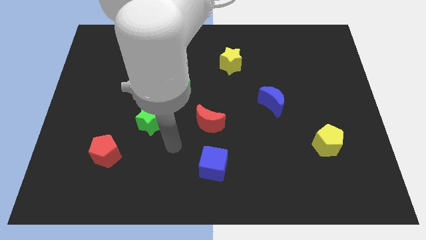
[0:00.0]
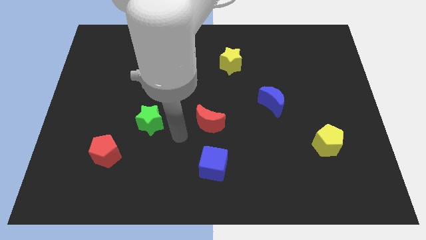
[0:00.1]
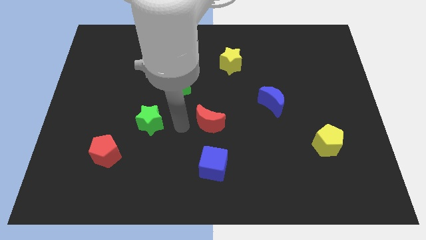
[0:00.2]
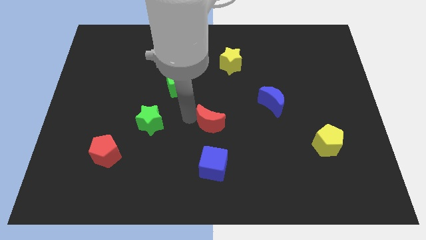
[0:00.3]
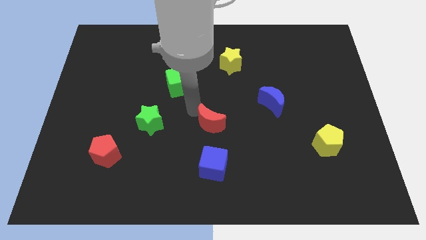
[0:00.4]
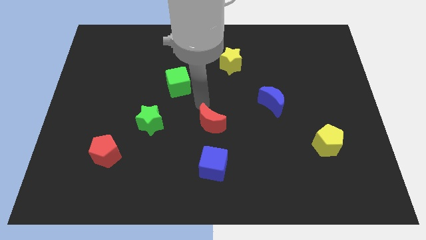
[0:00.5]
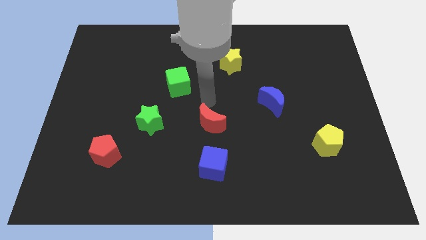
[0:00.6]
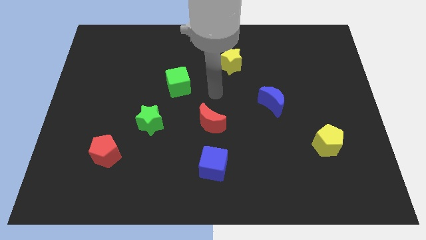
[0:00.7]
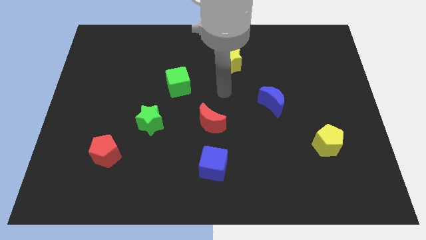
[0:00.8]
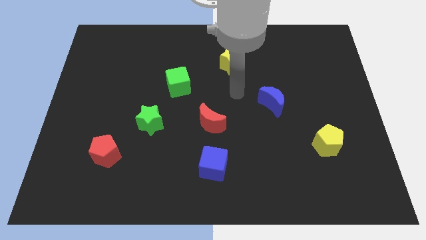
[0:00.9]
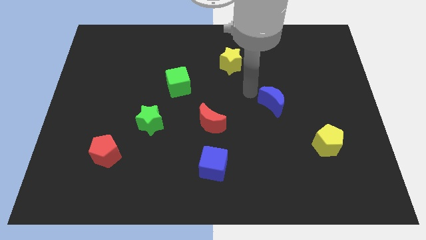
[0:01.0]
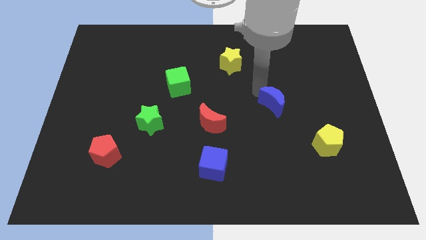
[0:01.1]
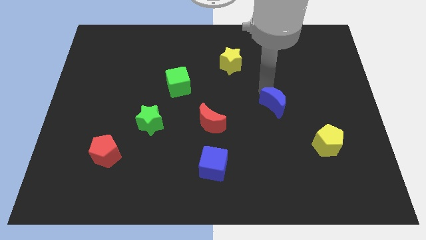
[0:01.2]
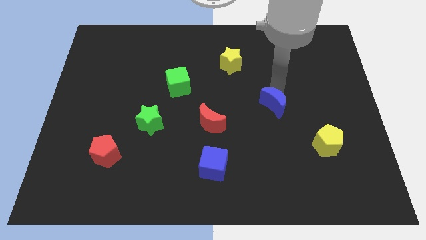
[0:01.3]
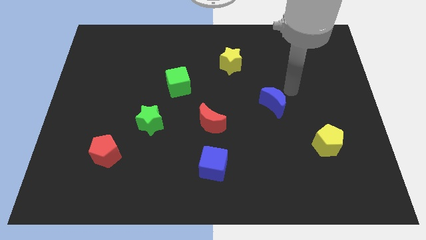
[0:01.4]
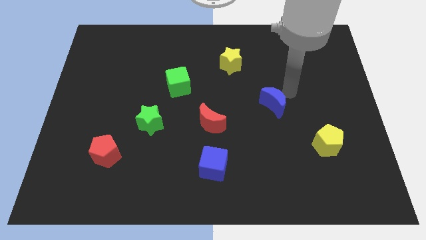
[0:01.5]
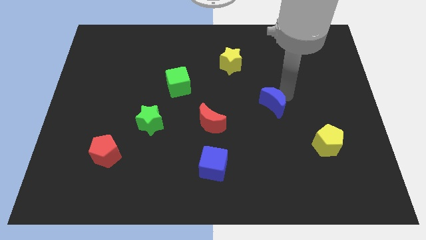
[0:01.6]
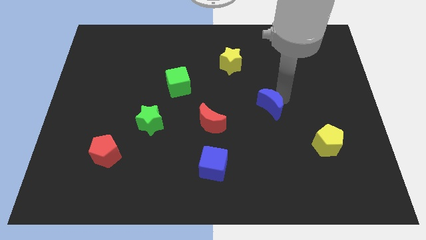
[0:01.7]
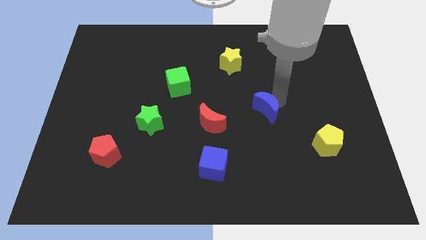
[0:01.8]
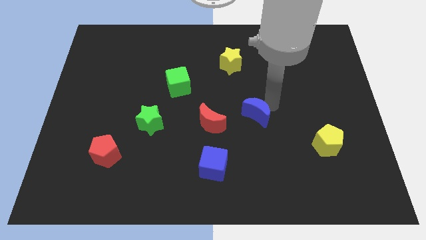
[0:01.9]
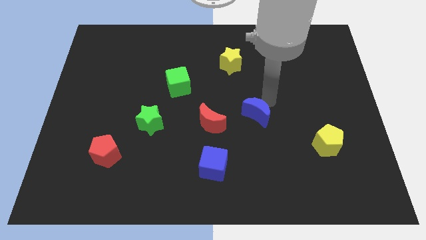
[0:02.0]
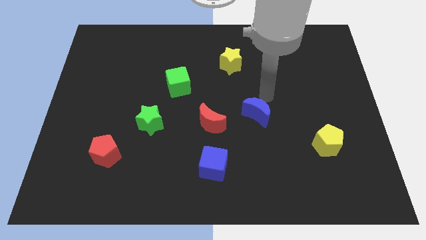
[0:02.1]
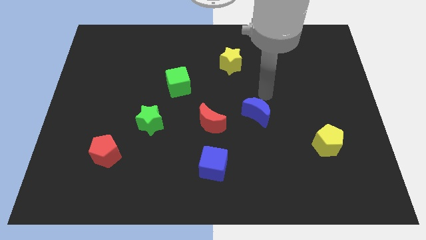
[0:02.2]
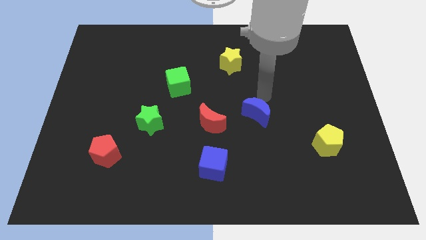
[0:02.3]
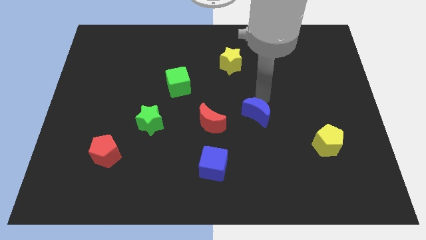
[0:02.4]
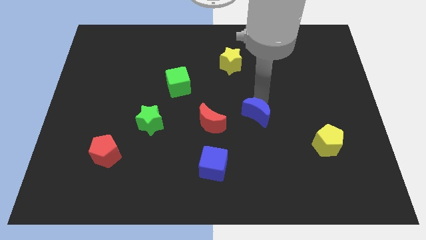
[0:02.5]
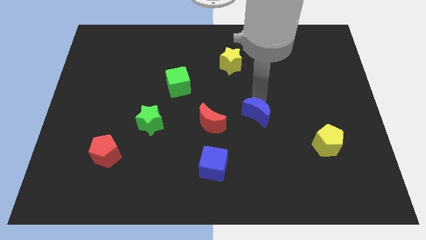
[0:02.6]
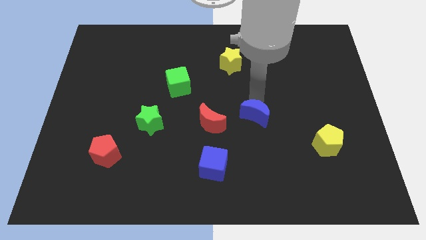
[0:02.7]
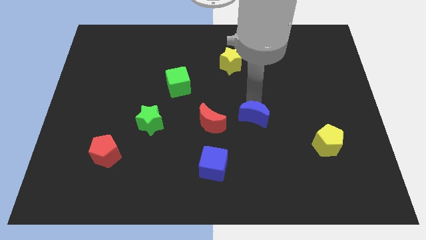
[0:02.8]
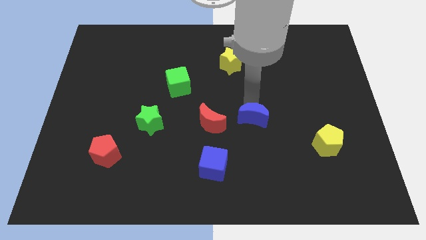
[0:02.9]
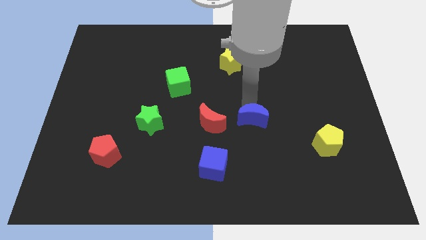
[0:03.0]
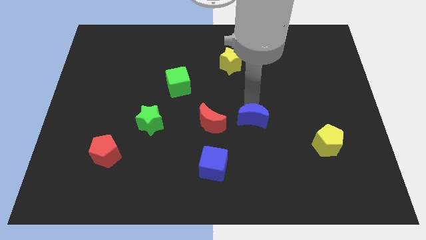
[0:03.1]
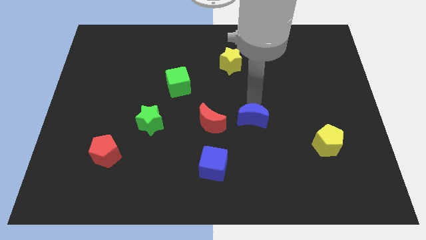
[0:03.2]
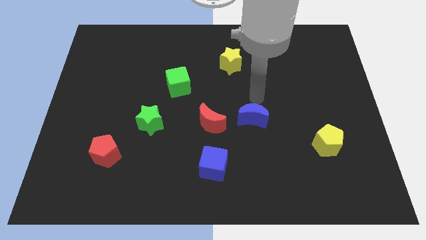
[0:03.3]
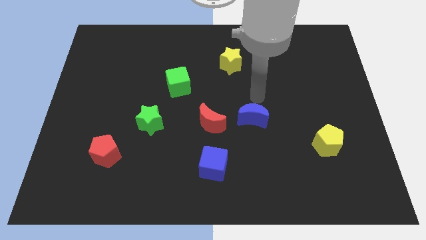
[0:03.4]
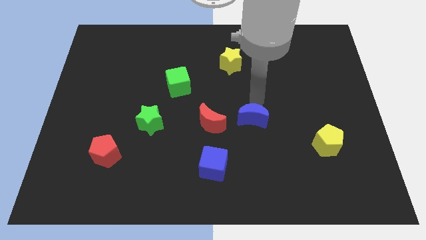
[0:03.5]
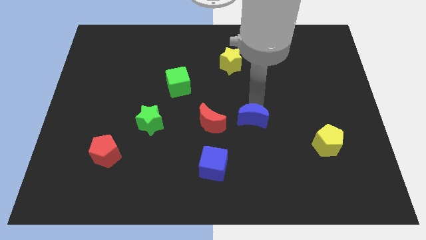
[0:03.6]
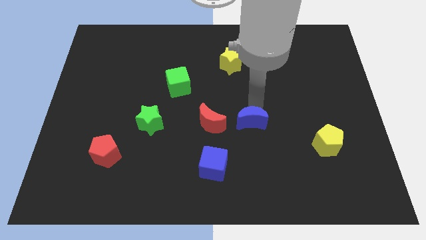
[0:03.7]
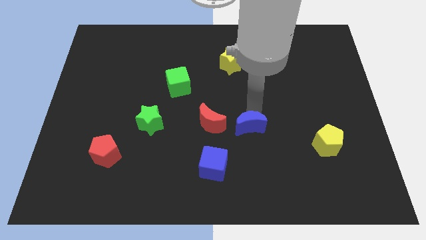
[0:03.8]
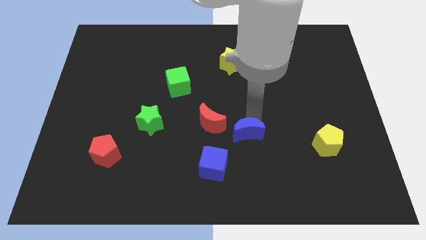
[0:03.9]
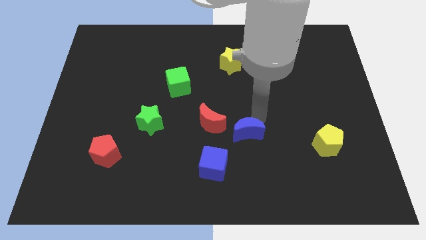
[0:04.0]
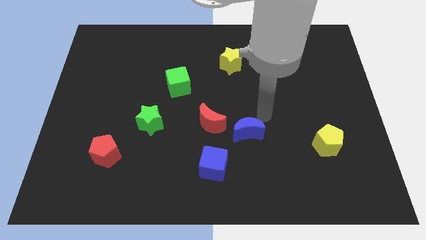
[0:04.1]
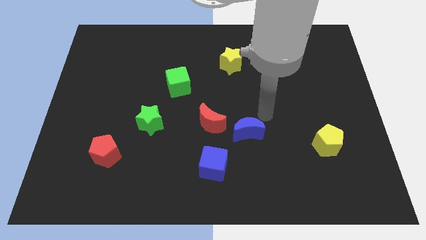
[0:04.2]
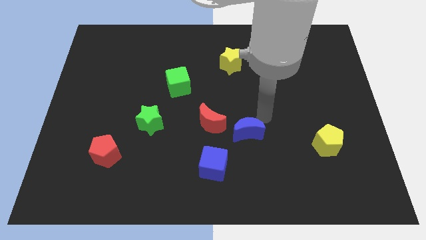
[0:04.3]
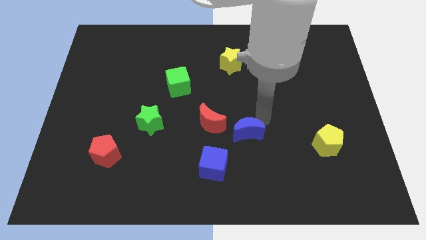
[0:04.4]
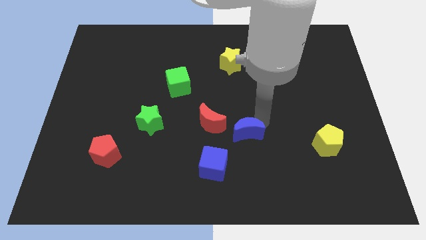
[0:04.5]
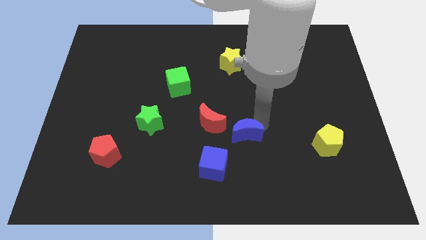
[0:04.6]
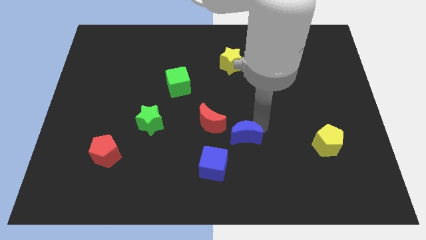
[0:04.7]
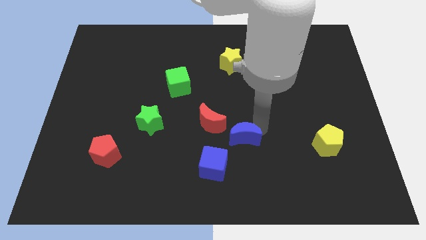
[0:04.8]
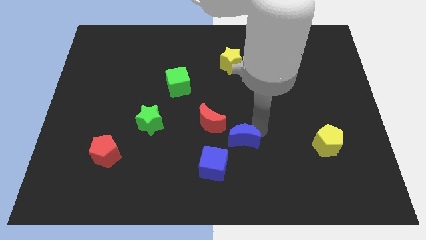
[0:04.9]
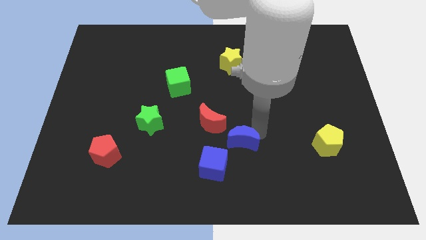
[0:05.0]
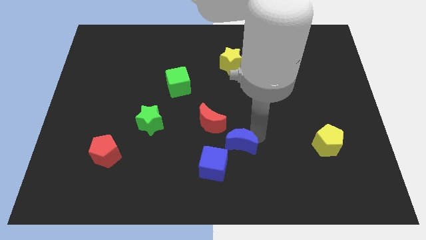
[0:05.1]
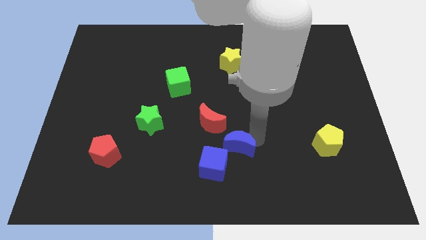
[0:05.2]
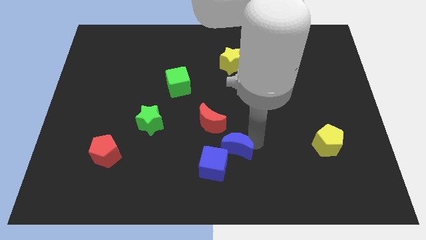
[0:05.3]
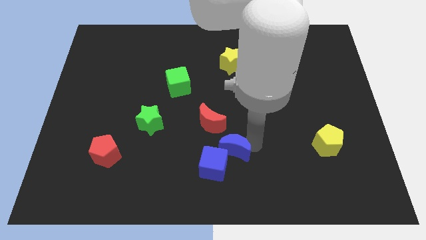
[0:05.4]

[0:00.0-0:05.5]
put the blue moon next to the blue cube

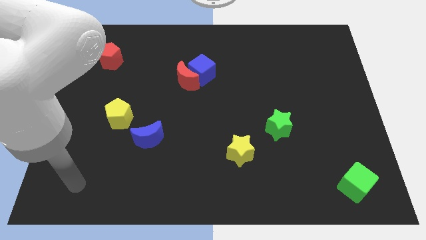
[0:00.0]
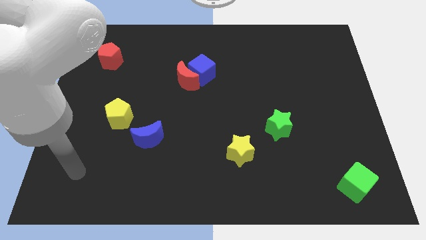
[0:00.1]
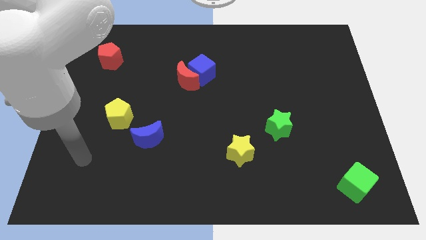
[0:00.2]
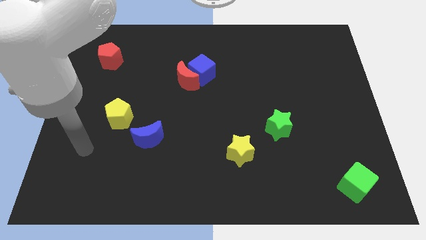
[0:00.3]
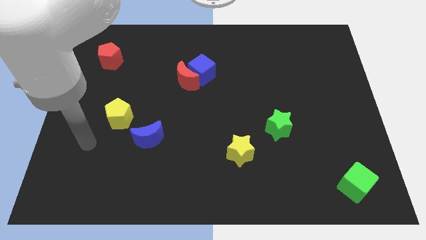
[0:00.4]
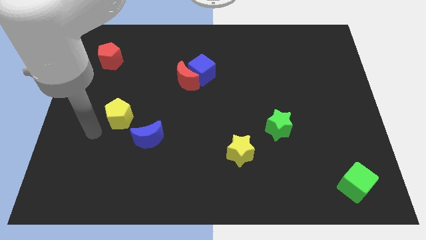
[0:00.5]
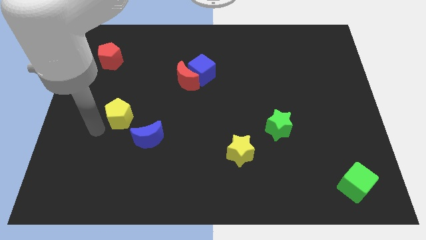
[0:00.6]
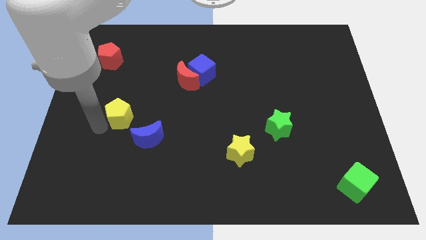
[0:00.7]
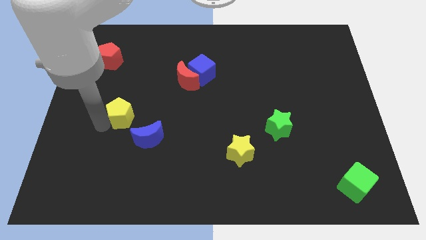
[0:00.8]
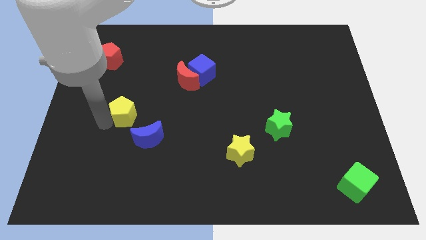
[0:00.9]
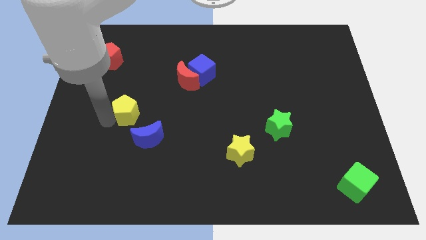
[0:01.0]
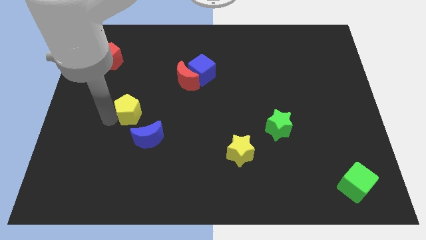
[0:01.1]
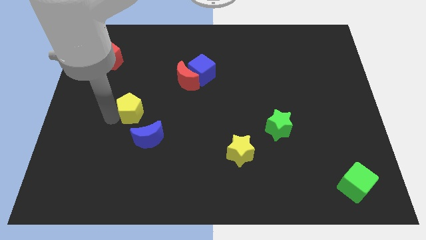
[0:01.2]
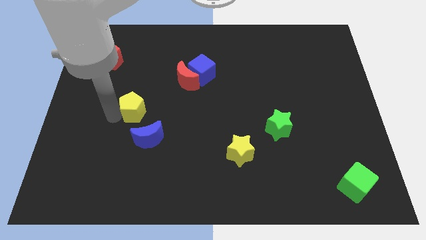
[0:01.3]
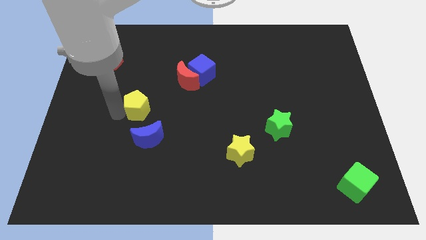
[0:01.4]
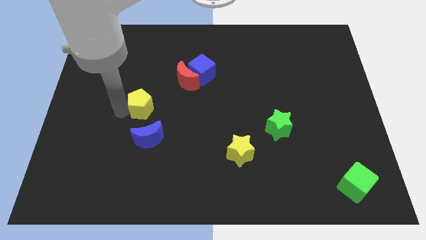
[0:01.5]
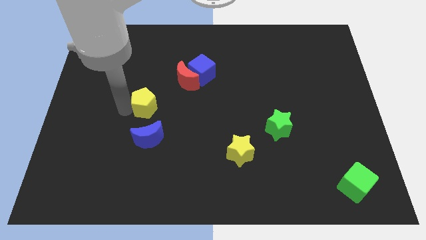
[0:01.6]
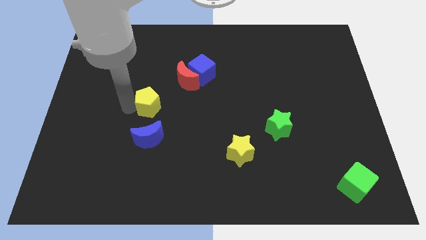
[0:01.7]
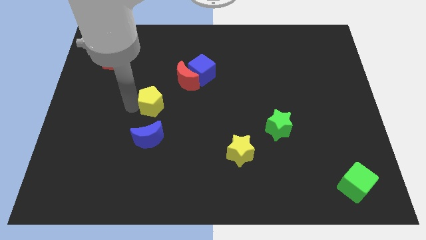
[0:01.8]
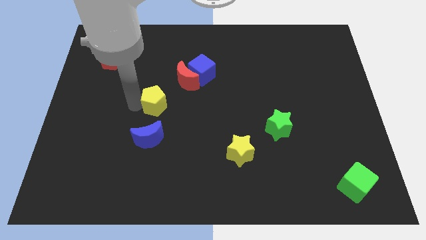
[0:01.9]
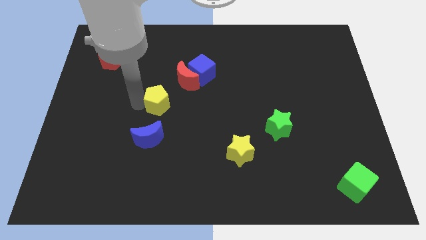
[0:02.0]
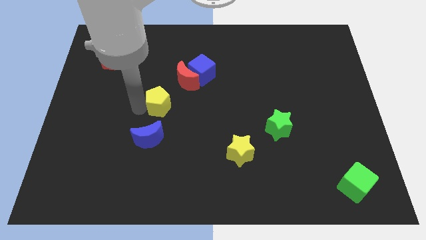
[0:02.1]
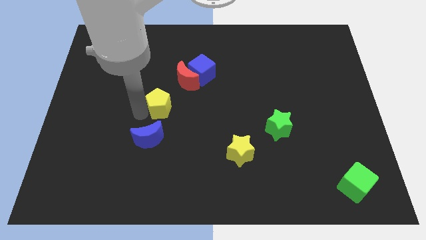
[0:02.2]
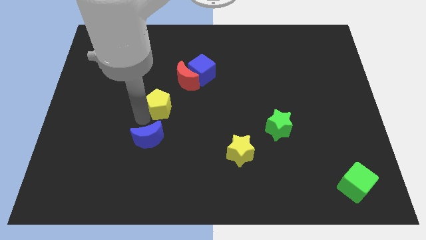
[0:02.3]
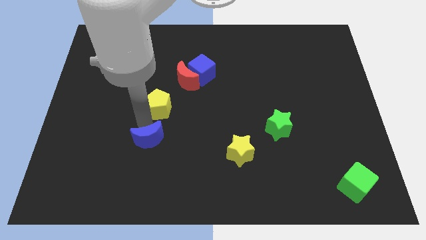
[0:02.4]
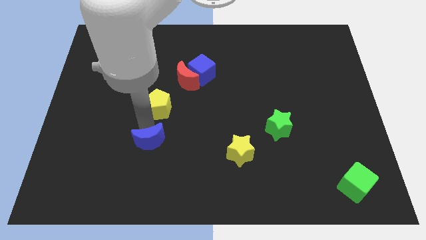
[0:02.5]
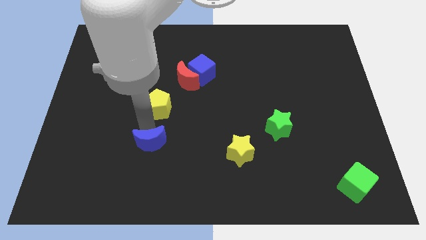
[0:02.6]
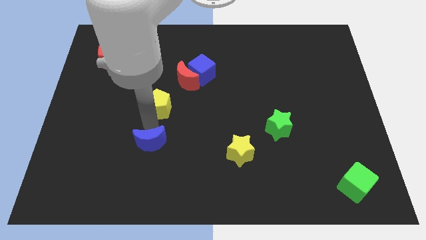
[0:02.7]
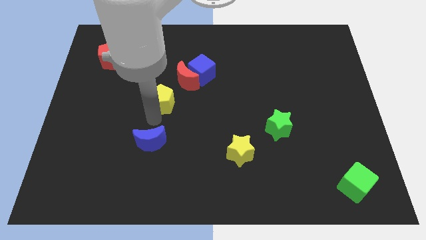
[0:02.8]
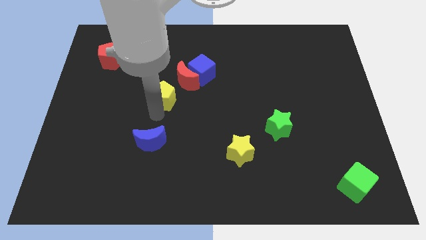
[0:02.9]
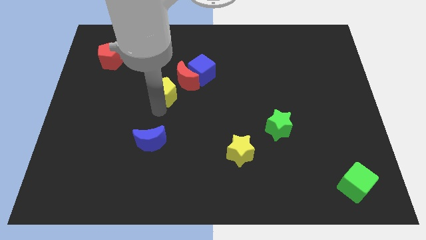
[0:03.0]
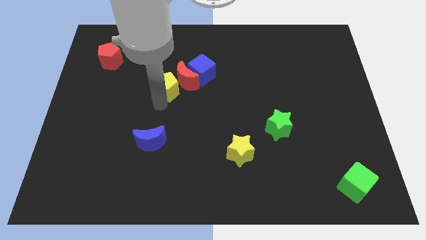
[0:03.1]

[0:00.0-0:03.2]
slide the yellow pentagon towards the red moon
